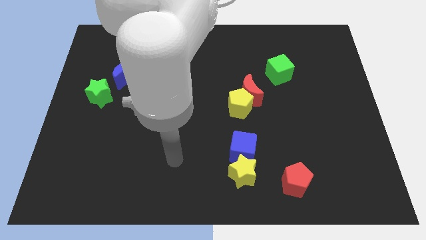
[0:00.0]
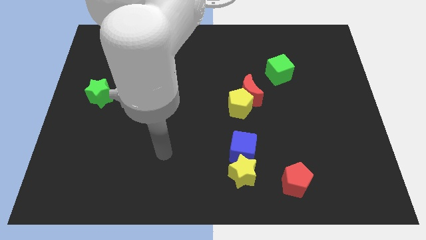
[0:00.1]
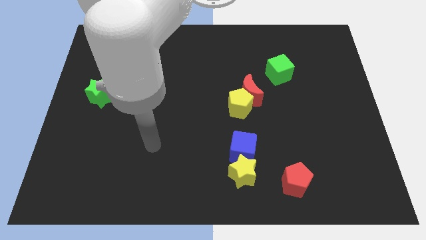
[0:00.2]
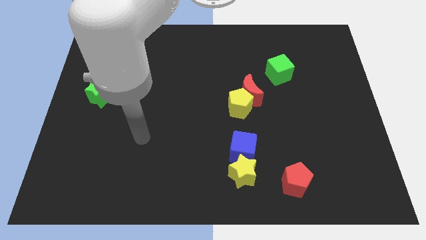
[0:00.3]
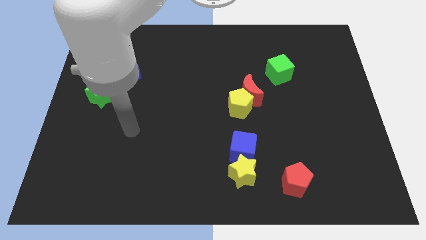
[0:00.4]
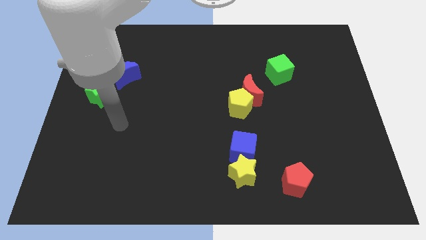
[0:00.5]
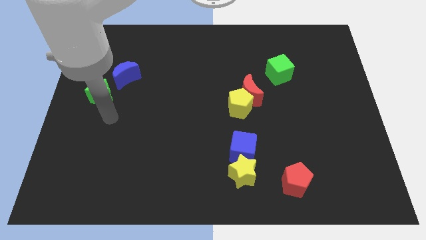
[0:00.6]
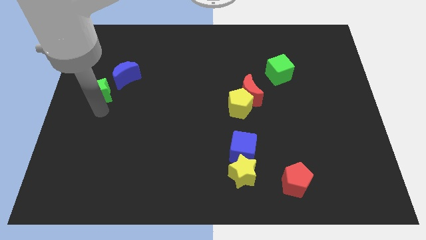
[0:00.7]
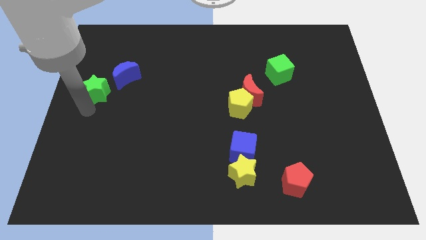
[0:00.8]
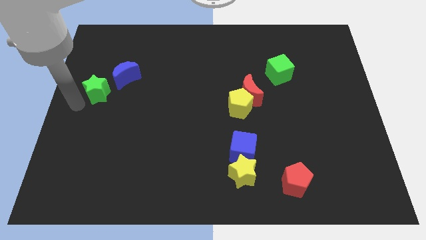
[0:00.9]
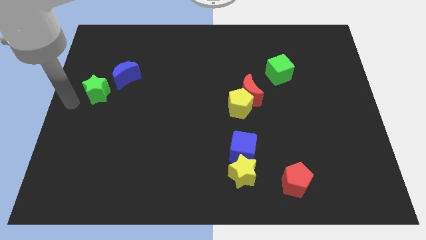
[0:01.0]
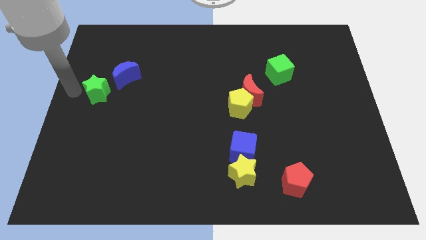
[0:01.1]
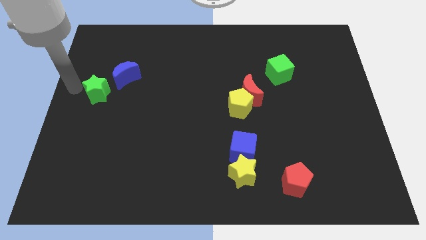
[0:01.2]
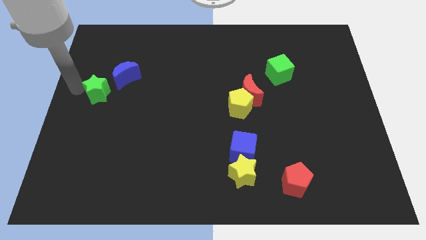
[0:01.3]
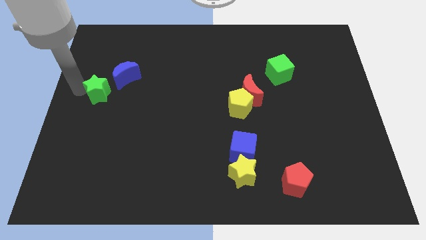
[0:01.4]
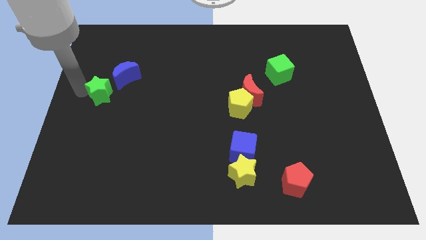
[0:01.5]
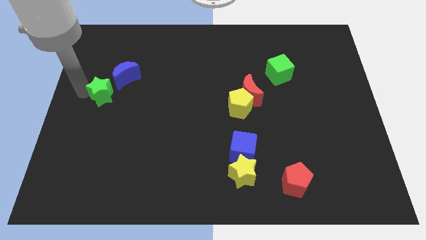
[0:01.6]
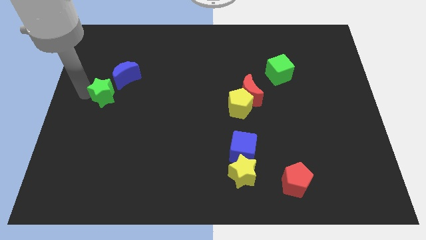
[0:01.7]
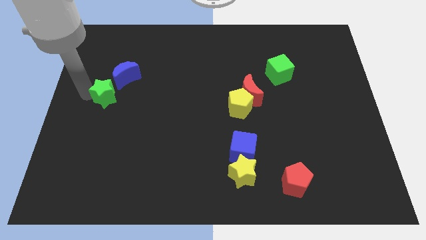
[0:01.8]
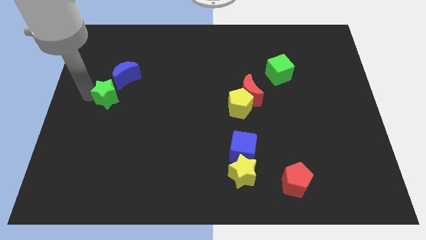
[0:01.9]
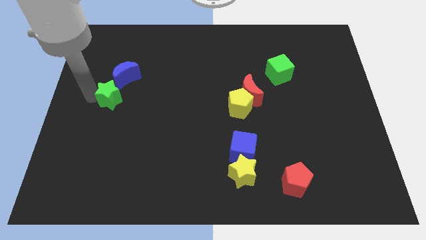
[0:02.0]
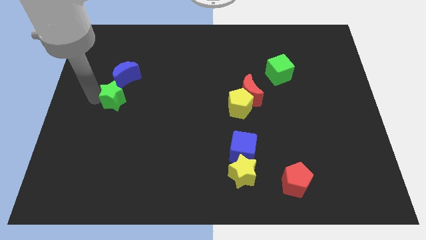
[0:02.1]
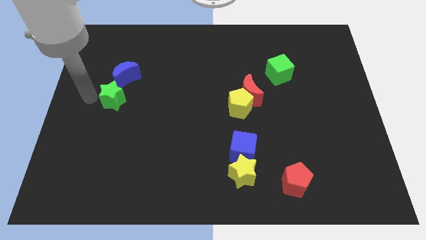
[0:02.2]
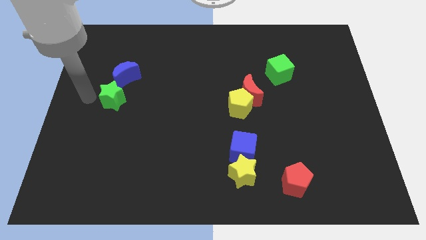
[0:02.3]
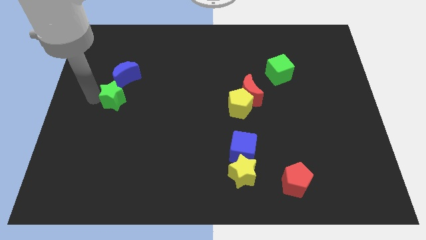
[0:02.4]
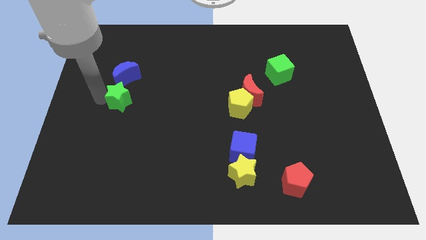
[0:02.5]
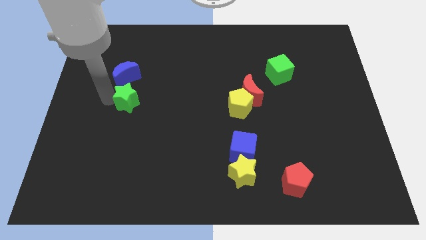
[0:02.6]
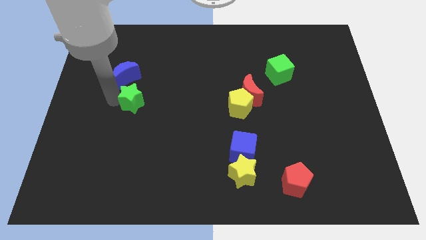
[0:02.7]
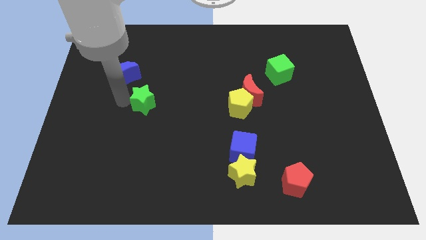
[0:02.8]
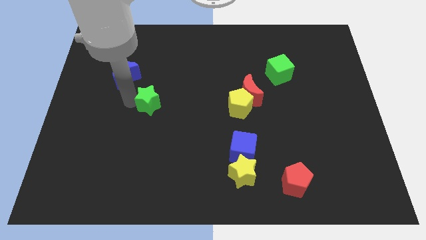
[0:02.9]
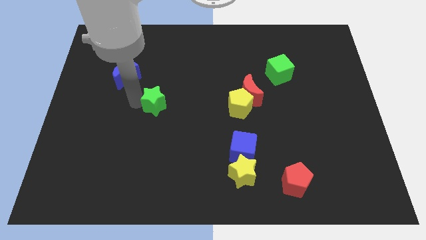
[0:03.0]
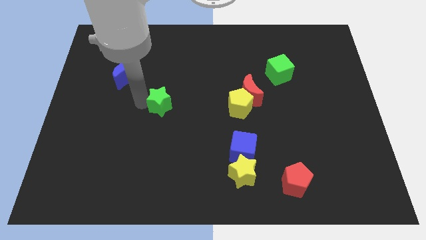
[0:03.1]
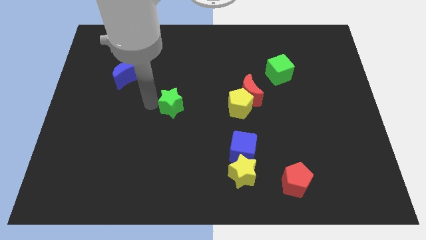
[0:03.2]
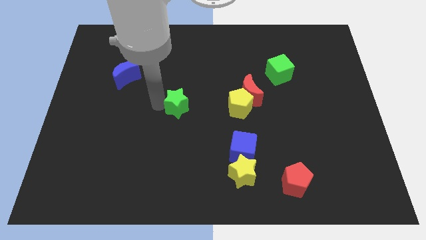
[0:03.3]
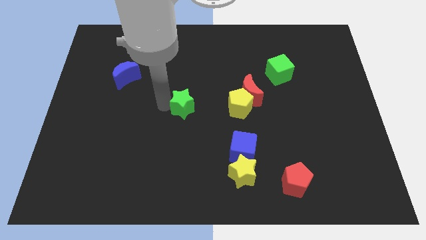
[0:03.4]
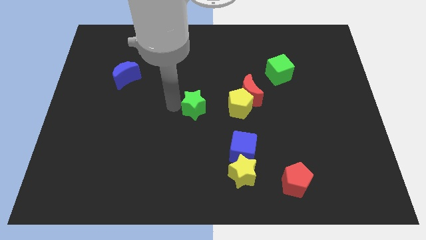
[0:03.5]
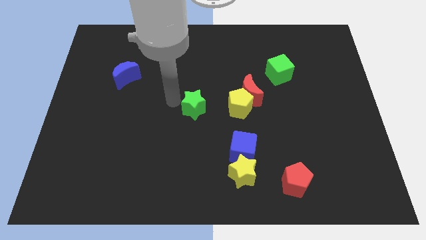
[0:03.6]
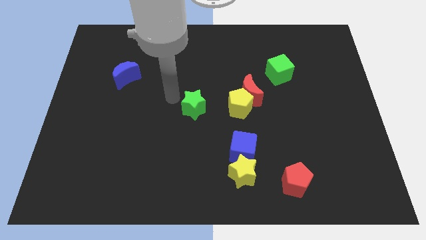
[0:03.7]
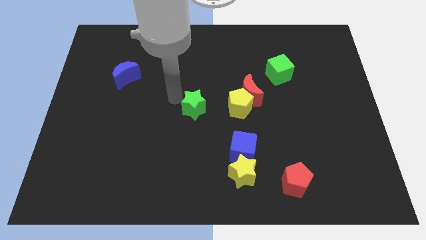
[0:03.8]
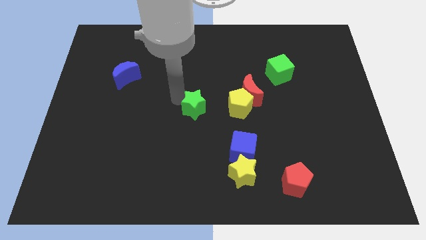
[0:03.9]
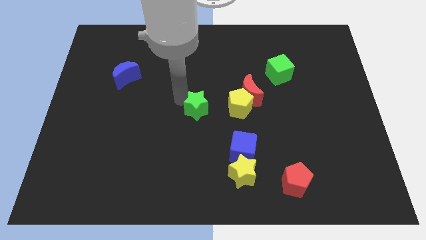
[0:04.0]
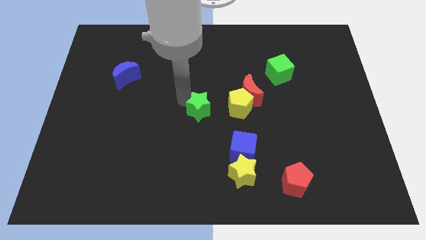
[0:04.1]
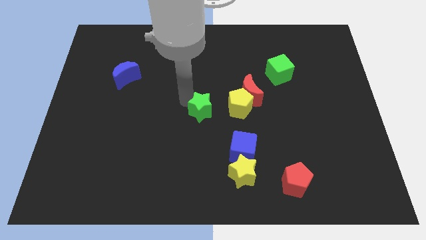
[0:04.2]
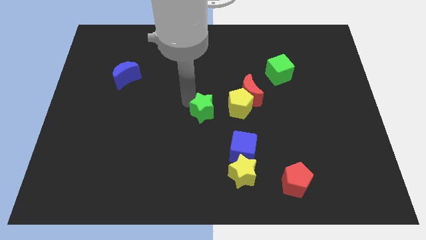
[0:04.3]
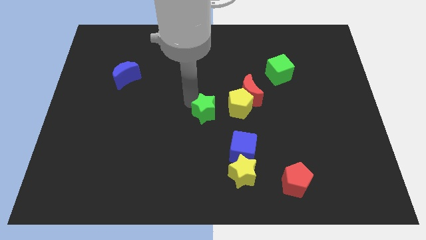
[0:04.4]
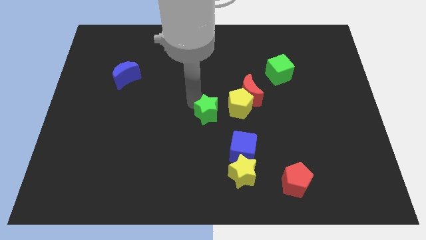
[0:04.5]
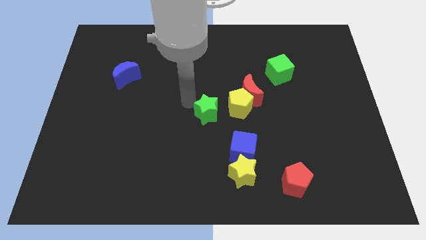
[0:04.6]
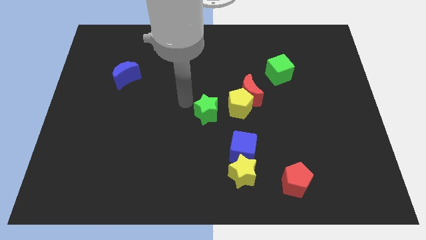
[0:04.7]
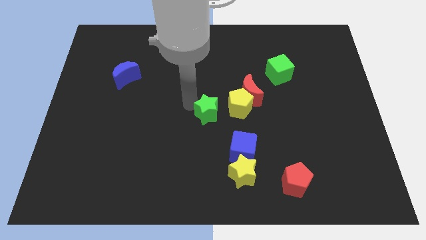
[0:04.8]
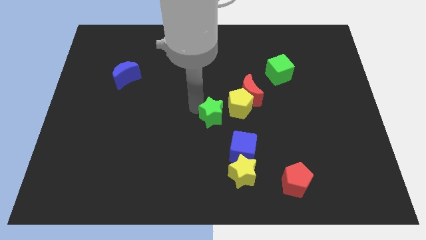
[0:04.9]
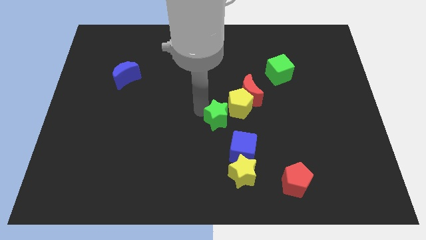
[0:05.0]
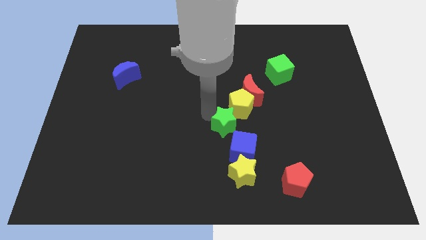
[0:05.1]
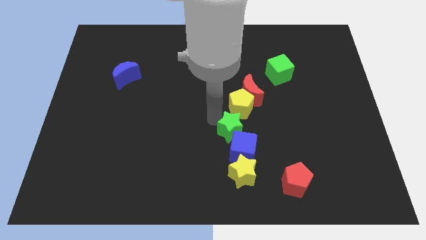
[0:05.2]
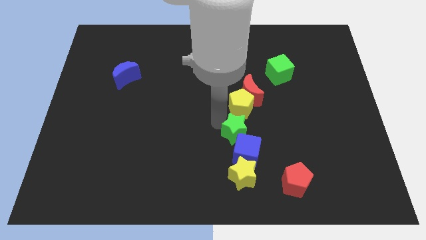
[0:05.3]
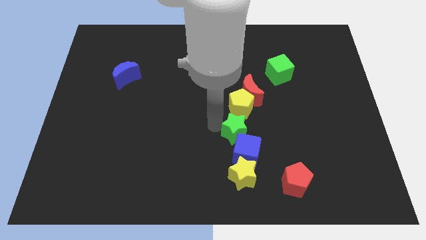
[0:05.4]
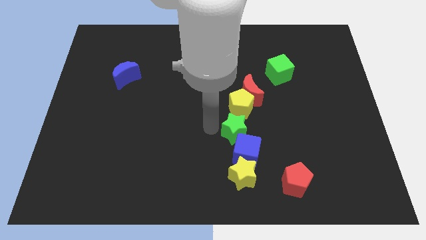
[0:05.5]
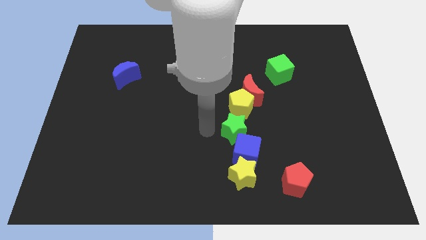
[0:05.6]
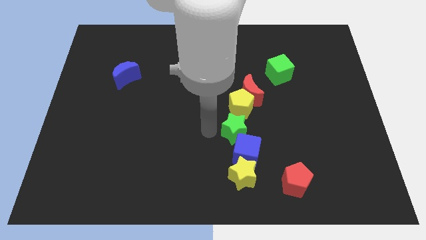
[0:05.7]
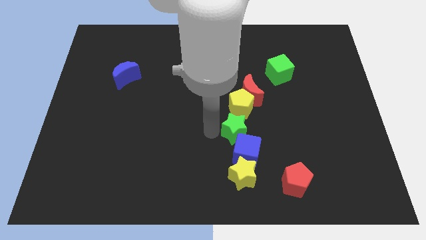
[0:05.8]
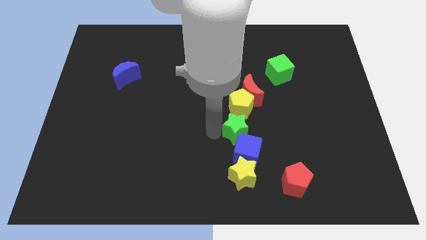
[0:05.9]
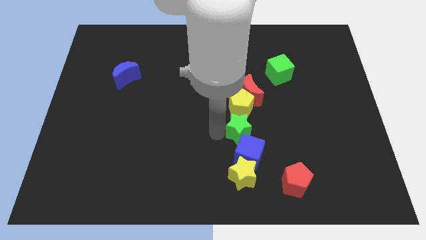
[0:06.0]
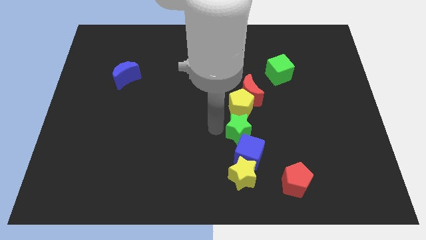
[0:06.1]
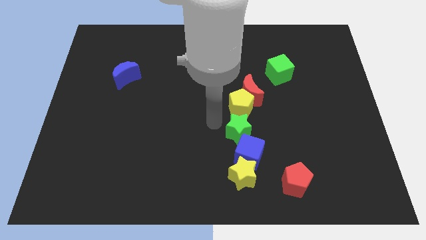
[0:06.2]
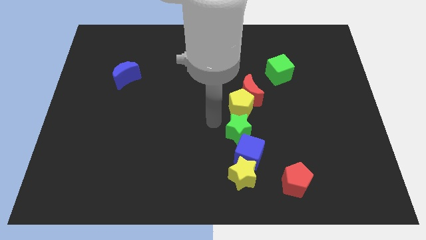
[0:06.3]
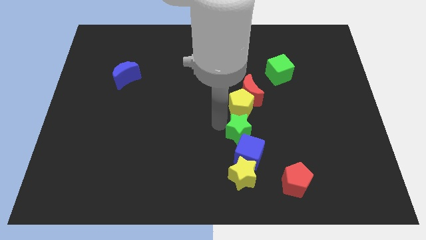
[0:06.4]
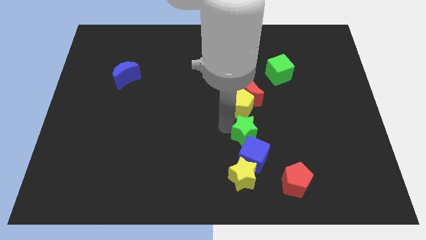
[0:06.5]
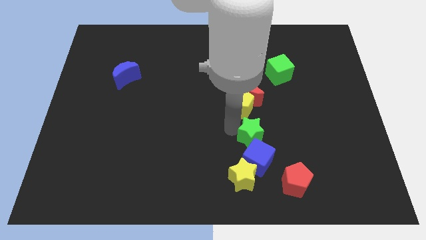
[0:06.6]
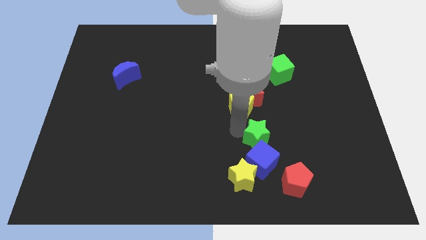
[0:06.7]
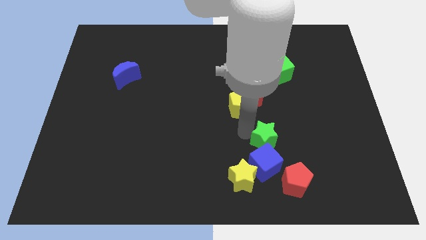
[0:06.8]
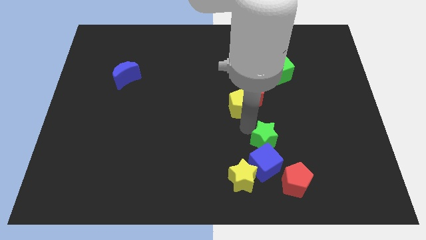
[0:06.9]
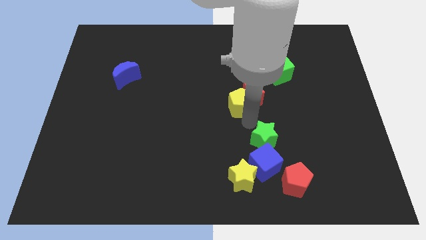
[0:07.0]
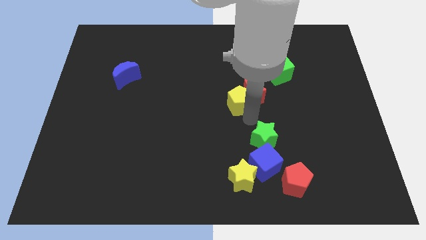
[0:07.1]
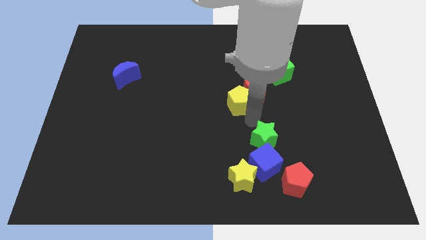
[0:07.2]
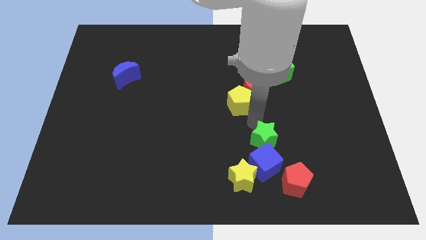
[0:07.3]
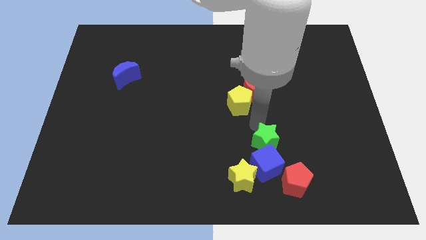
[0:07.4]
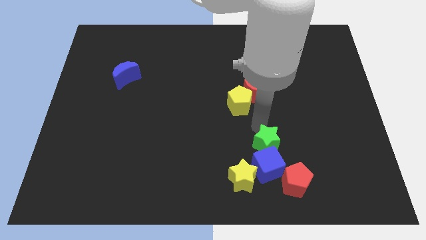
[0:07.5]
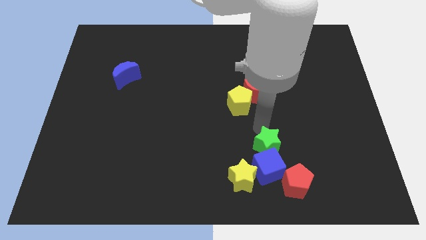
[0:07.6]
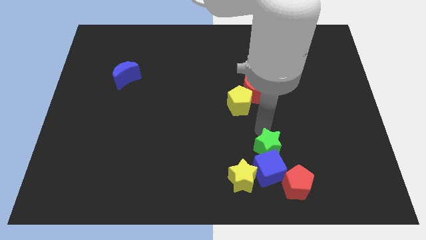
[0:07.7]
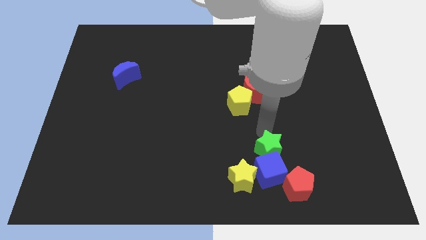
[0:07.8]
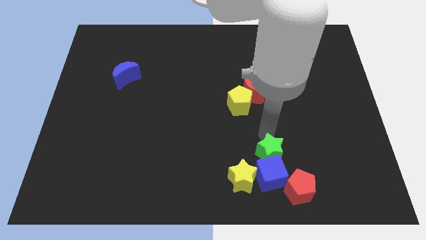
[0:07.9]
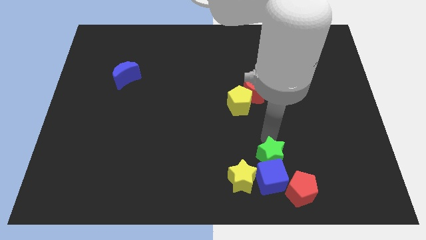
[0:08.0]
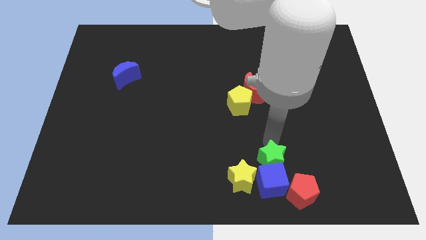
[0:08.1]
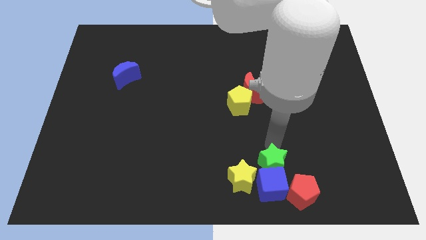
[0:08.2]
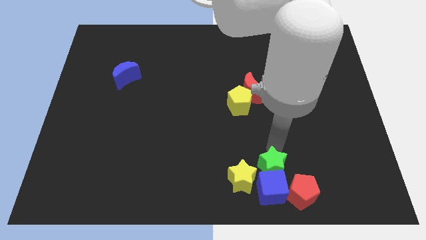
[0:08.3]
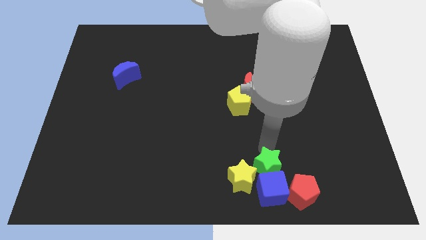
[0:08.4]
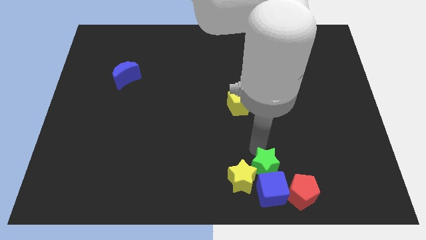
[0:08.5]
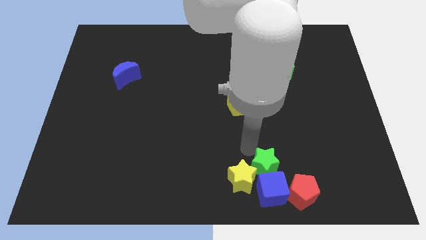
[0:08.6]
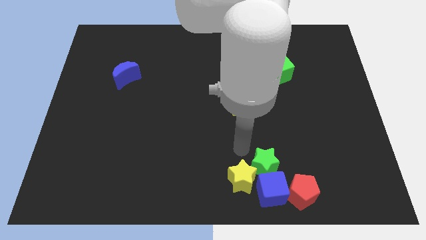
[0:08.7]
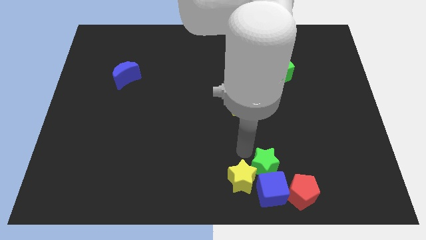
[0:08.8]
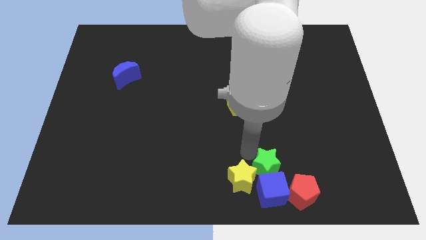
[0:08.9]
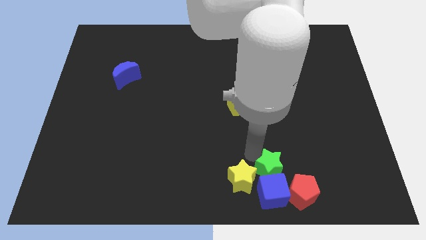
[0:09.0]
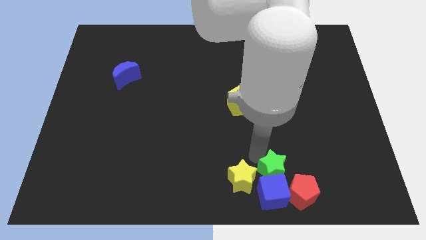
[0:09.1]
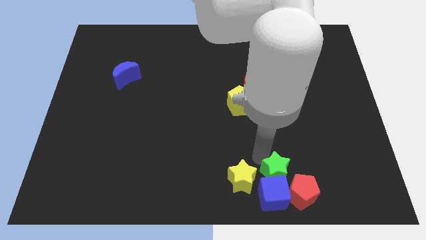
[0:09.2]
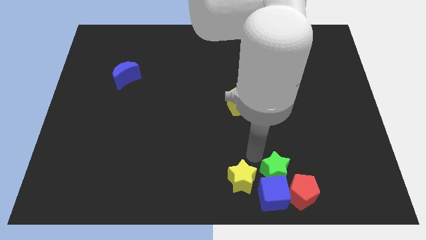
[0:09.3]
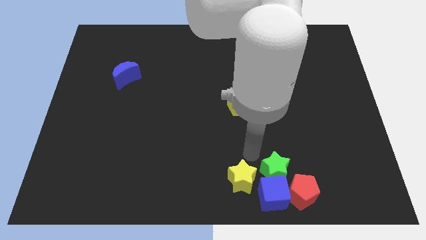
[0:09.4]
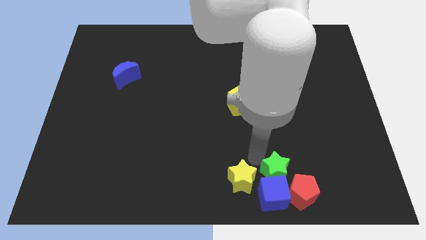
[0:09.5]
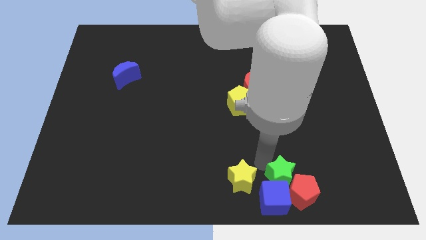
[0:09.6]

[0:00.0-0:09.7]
push the green star next to the red pentagon
